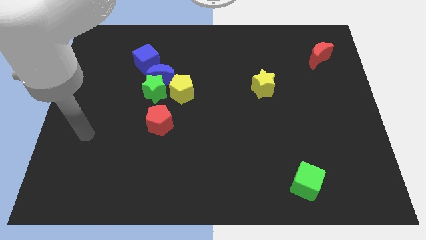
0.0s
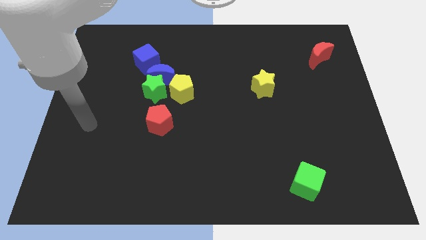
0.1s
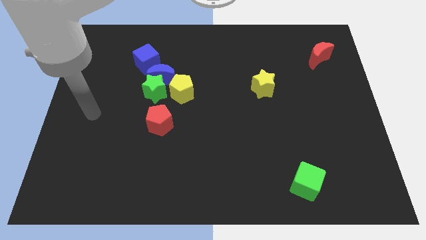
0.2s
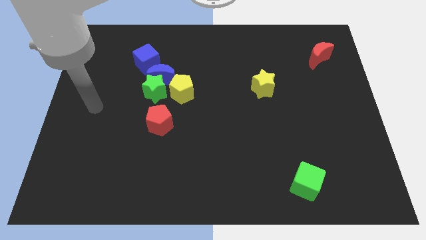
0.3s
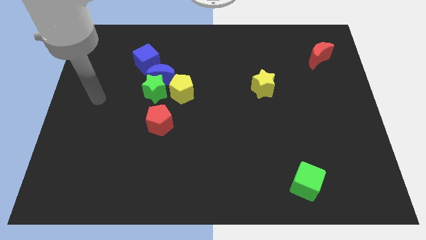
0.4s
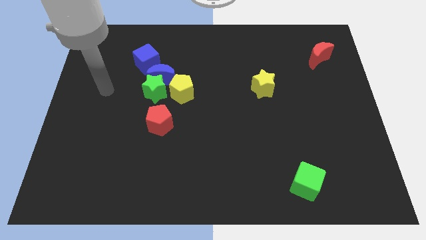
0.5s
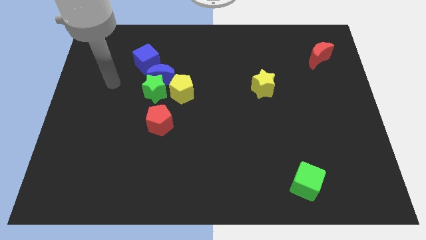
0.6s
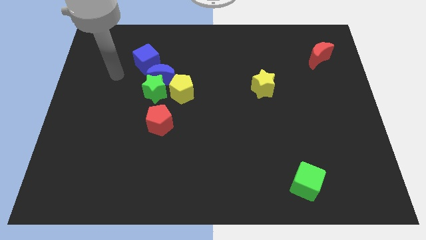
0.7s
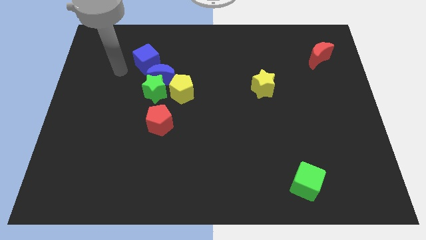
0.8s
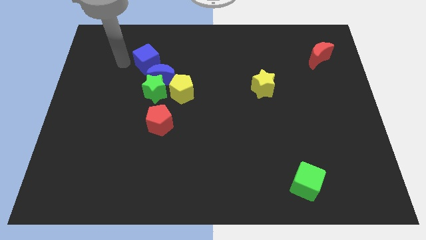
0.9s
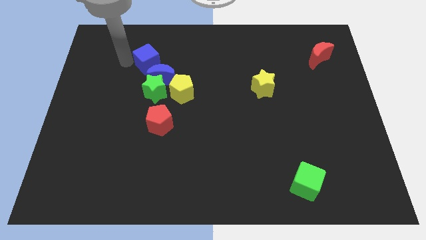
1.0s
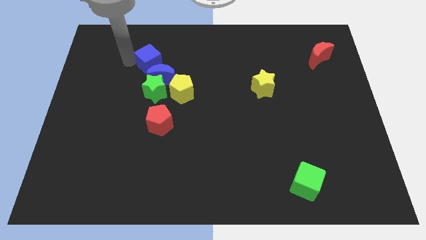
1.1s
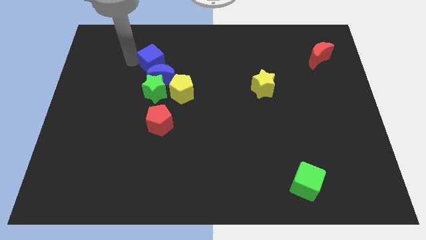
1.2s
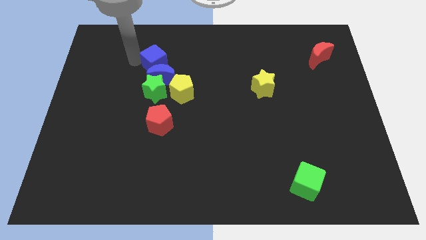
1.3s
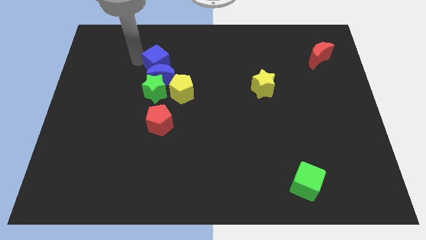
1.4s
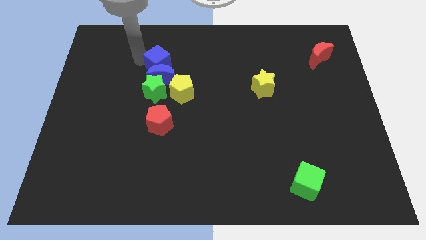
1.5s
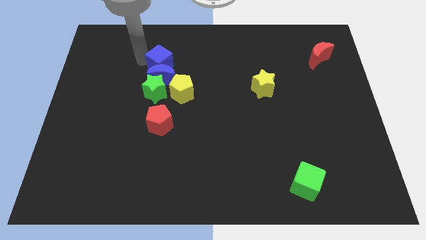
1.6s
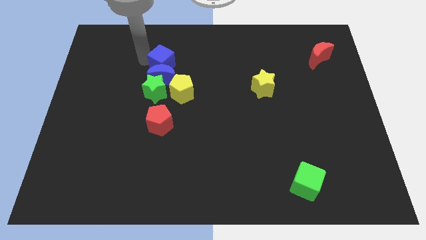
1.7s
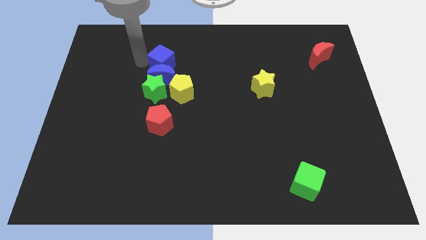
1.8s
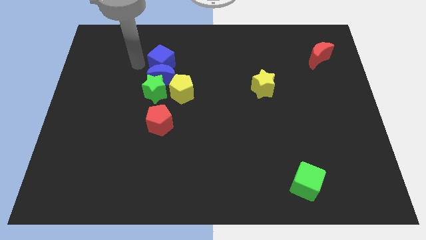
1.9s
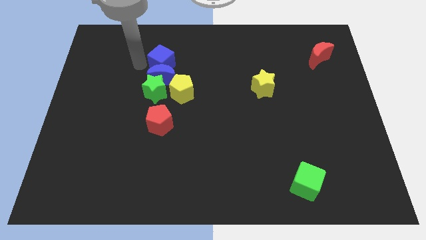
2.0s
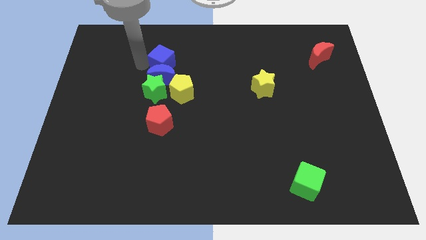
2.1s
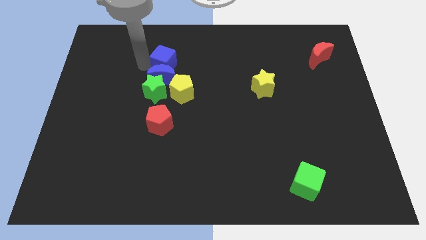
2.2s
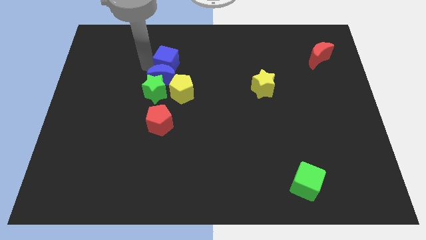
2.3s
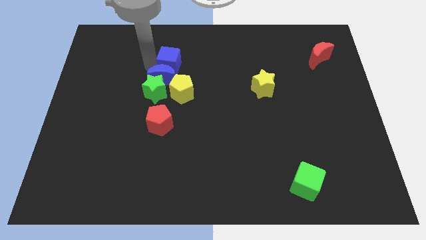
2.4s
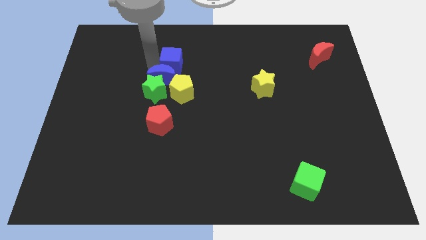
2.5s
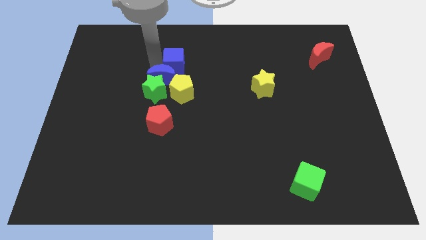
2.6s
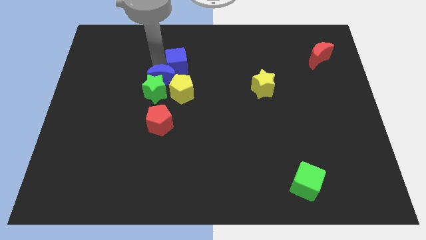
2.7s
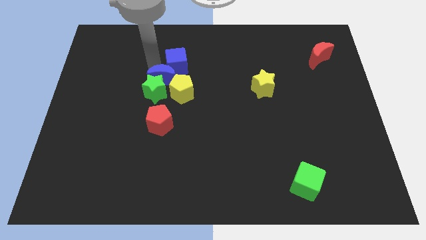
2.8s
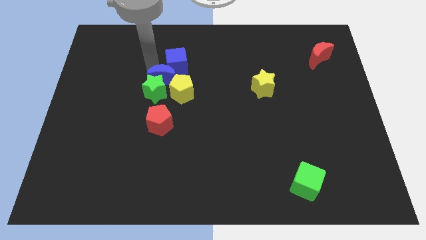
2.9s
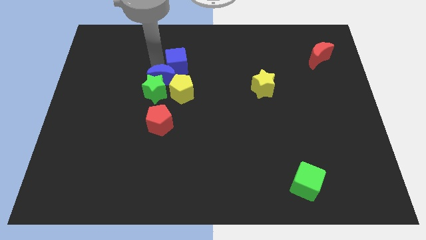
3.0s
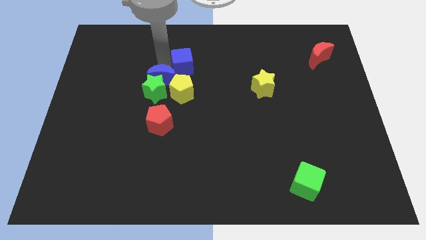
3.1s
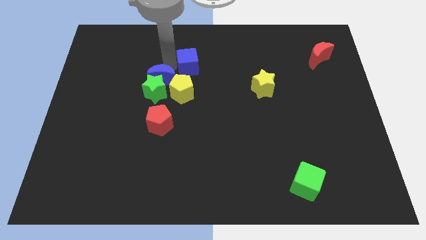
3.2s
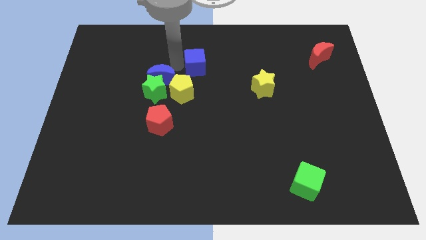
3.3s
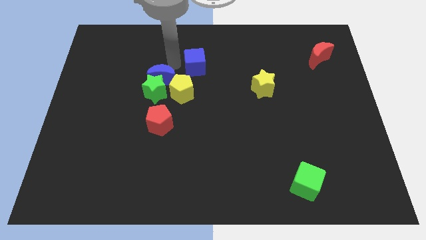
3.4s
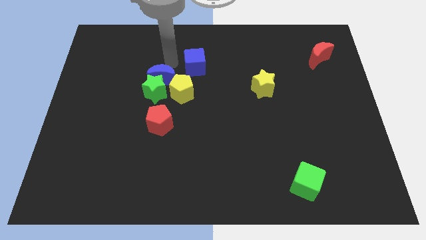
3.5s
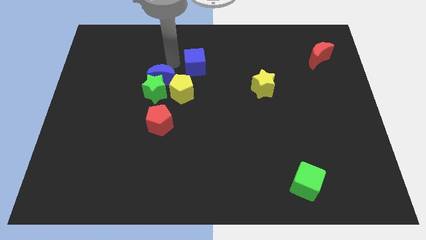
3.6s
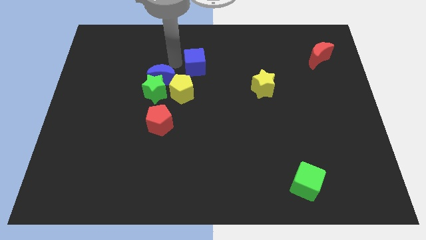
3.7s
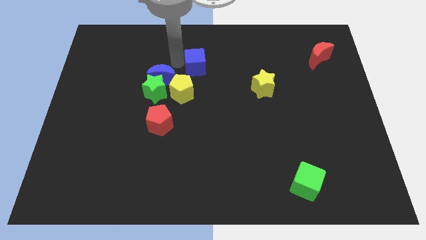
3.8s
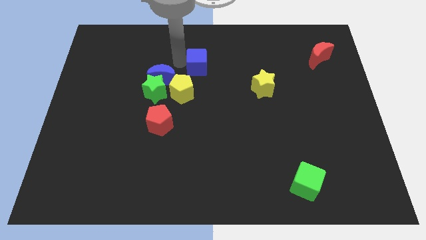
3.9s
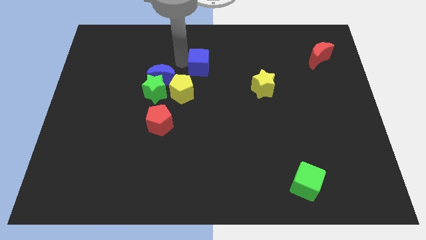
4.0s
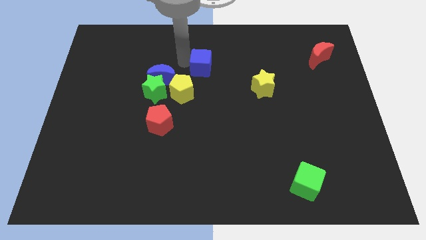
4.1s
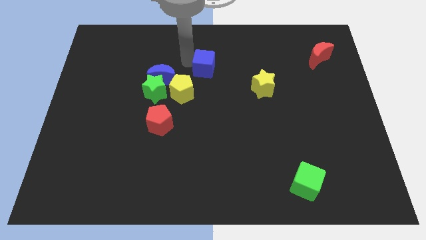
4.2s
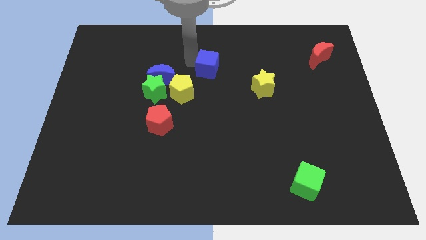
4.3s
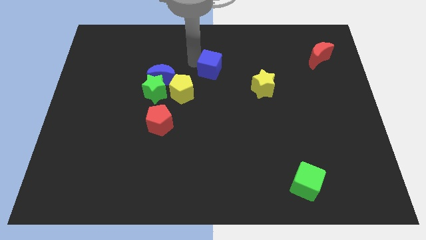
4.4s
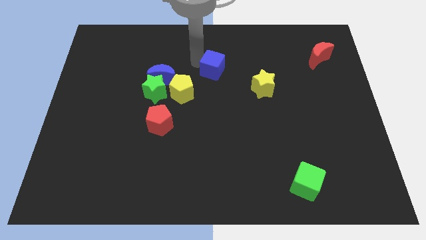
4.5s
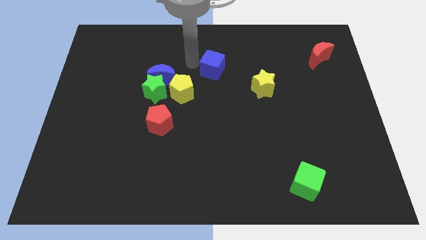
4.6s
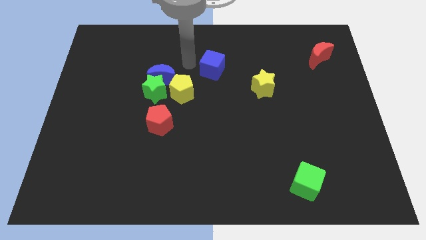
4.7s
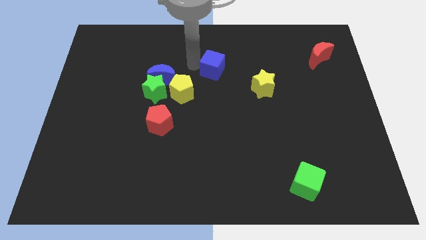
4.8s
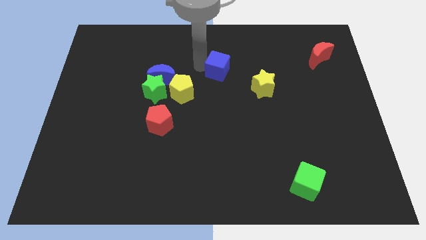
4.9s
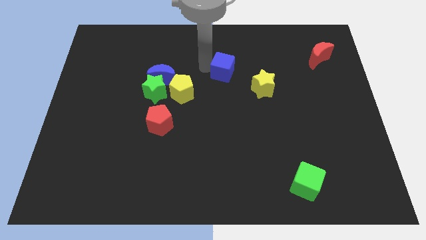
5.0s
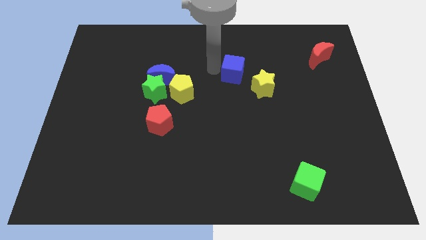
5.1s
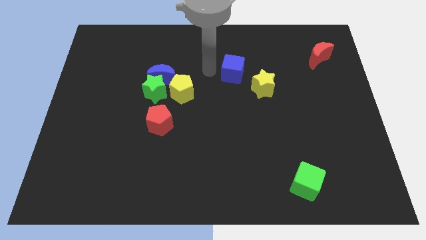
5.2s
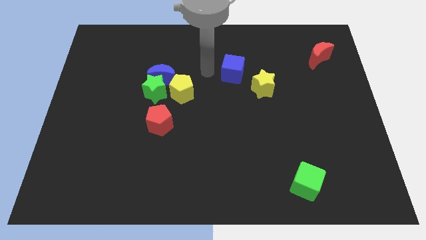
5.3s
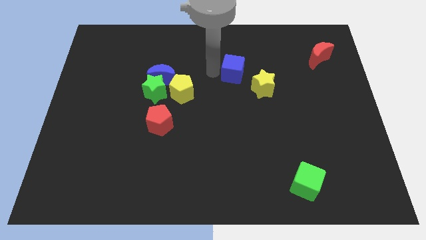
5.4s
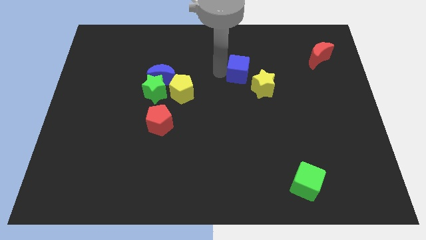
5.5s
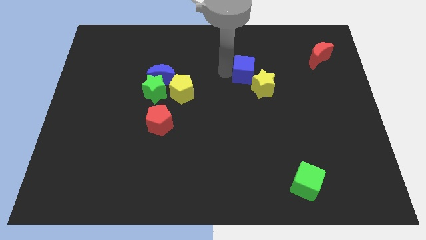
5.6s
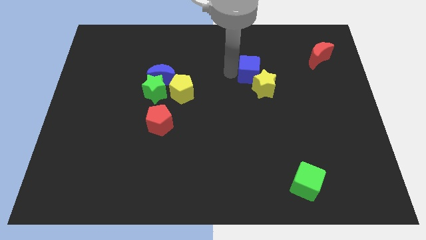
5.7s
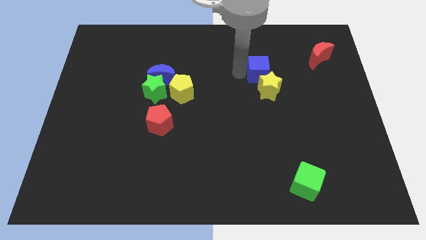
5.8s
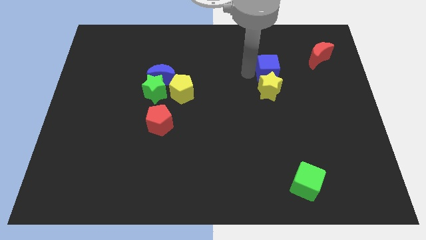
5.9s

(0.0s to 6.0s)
move the blue cube to the top right of the yellow star

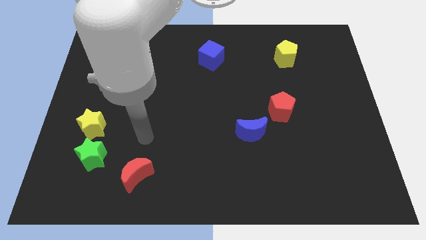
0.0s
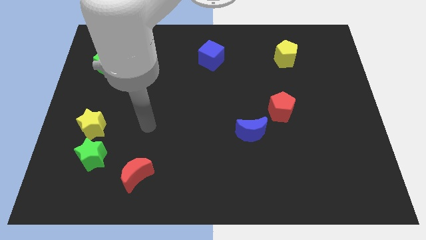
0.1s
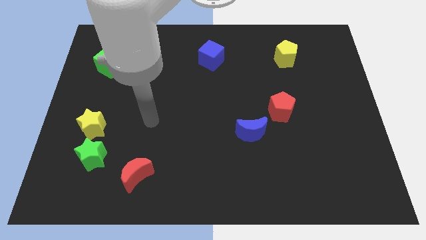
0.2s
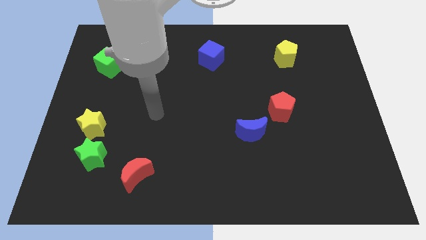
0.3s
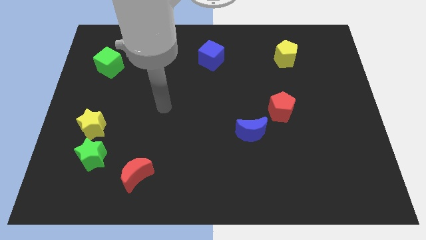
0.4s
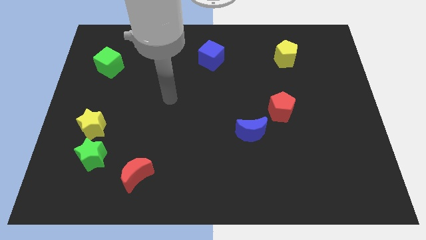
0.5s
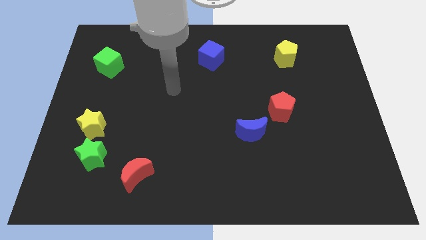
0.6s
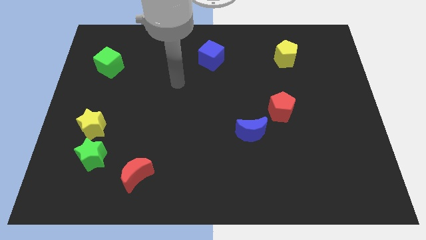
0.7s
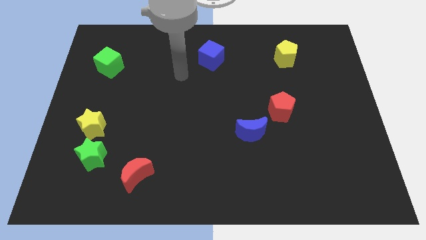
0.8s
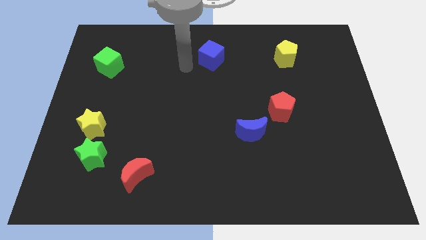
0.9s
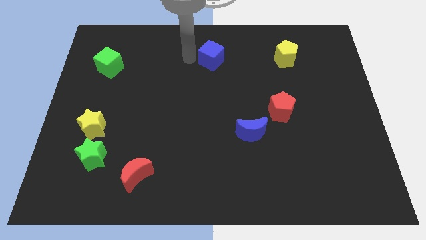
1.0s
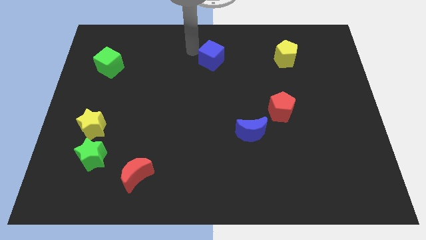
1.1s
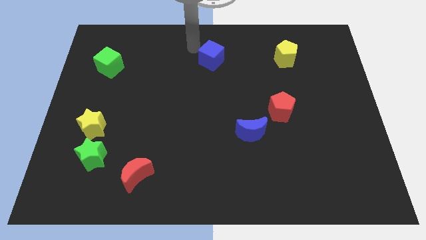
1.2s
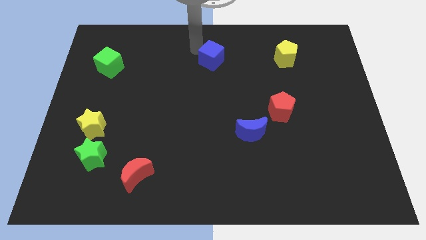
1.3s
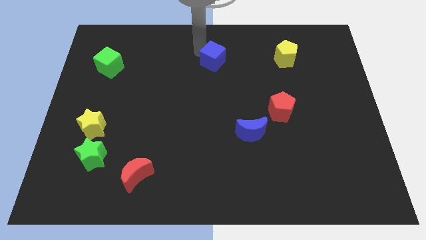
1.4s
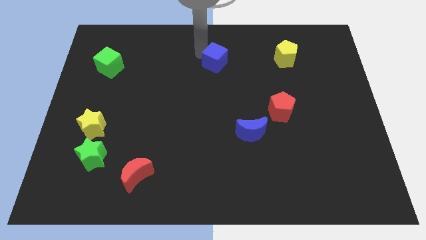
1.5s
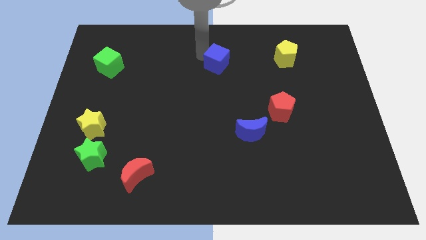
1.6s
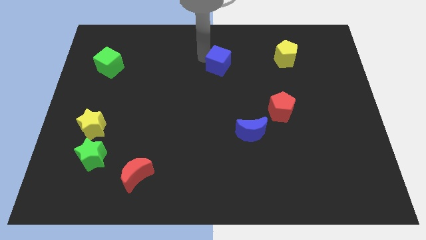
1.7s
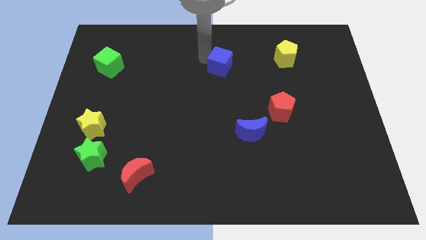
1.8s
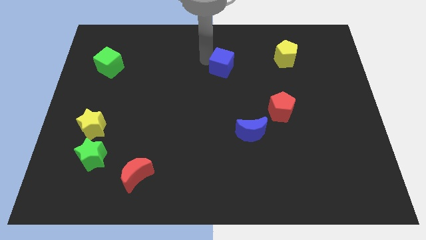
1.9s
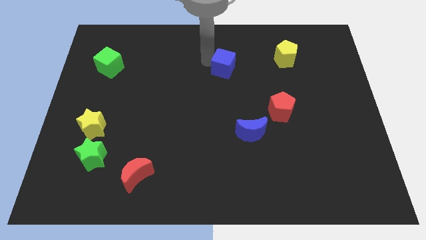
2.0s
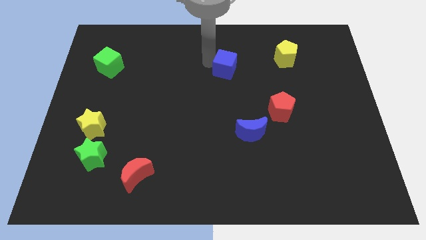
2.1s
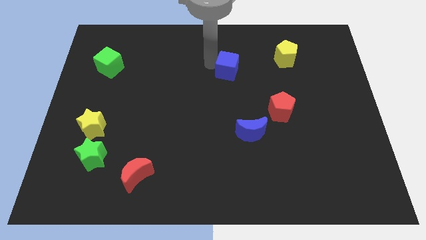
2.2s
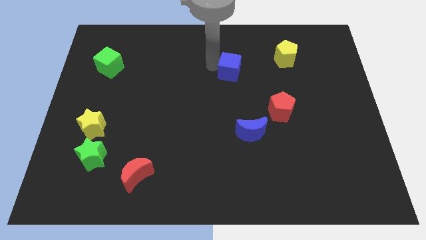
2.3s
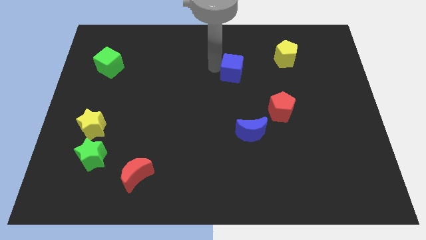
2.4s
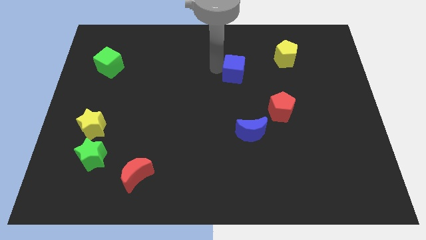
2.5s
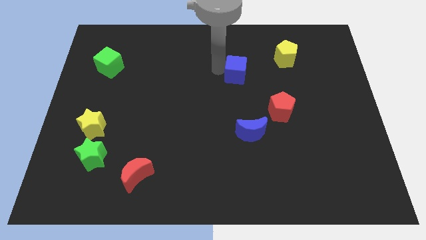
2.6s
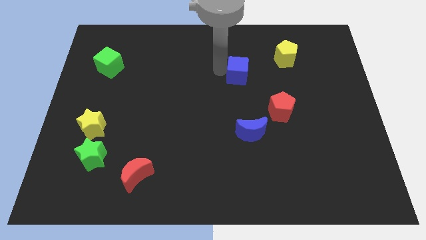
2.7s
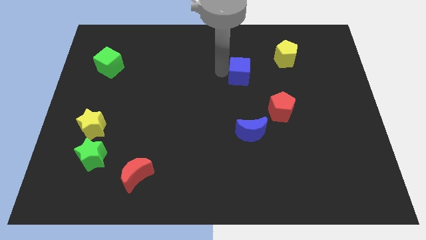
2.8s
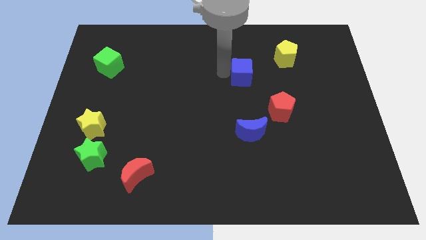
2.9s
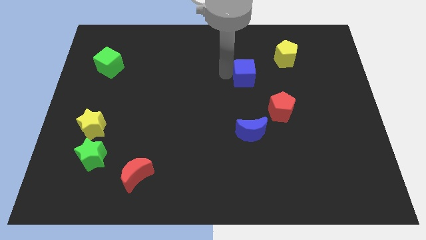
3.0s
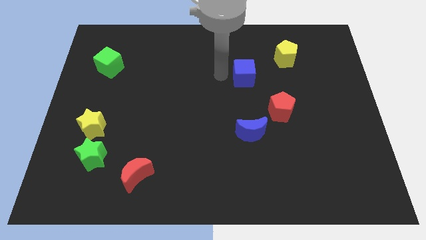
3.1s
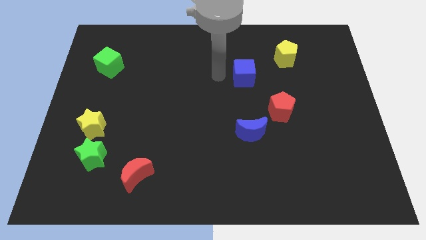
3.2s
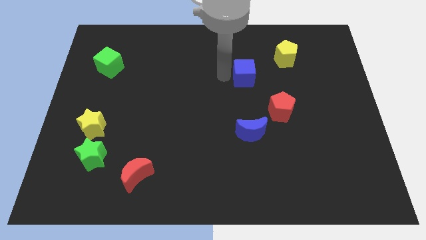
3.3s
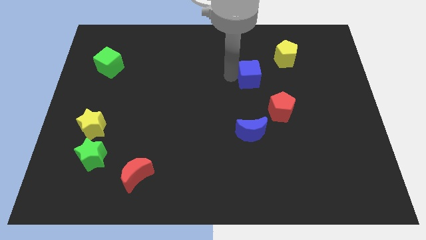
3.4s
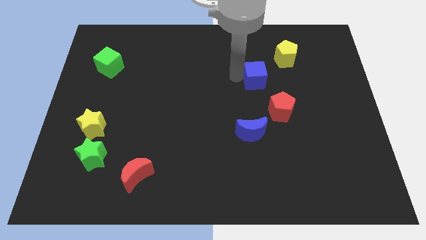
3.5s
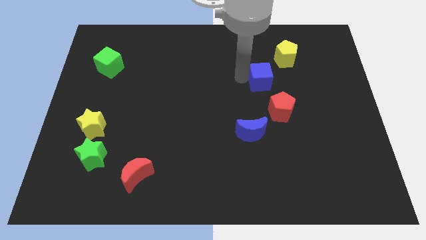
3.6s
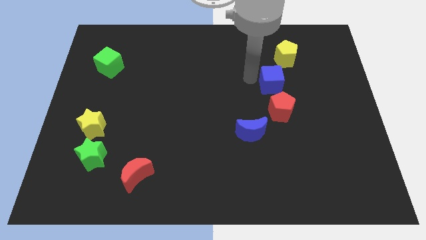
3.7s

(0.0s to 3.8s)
slide the blue cube to the bottom side of the yellow pentagon
